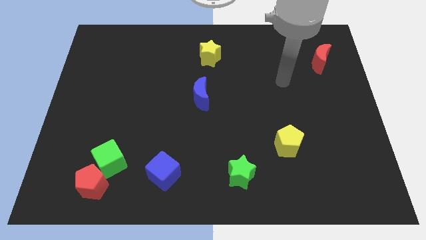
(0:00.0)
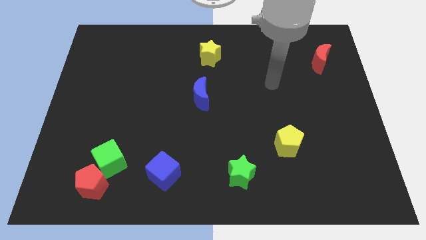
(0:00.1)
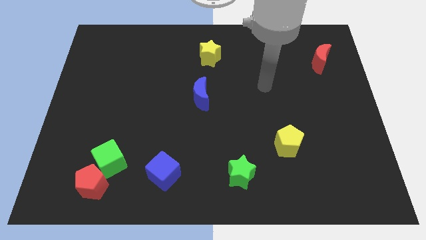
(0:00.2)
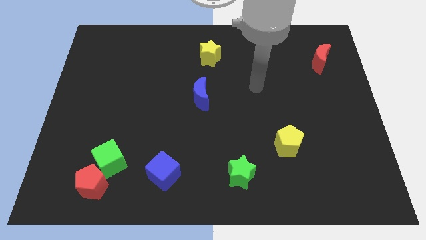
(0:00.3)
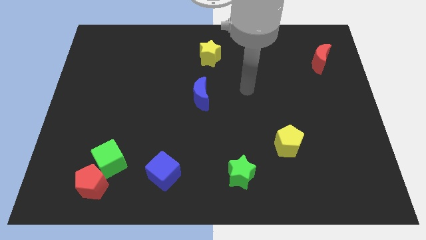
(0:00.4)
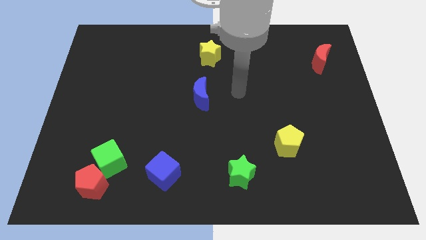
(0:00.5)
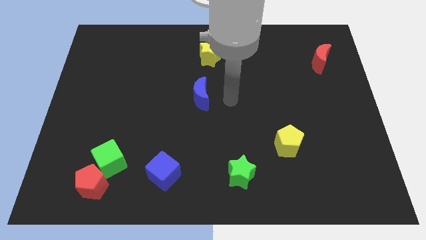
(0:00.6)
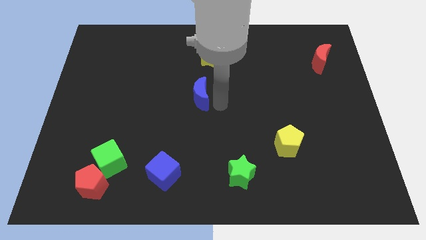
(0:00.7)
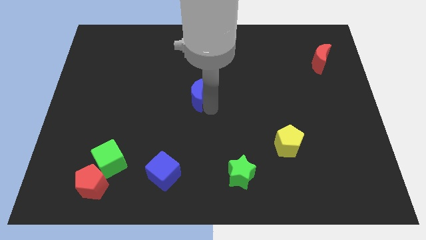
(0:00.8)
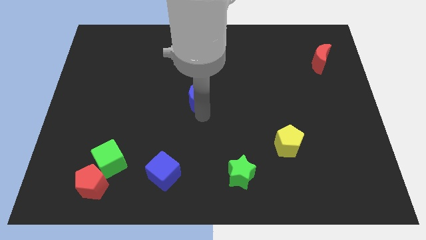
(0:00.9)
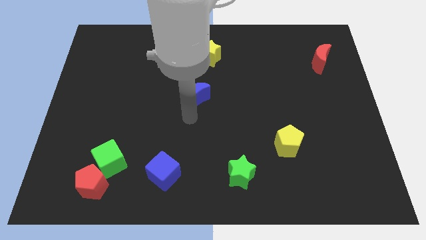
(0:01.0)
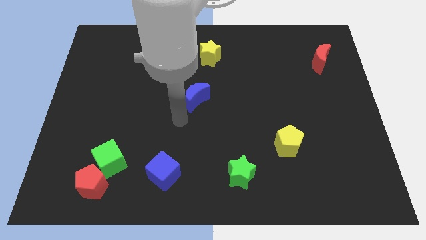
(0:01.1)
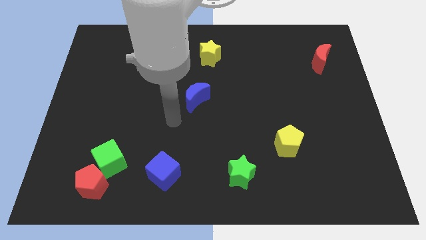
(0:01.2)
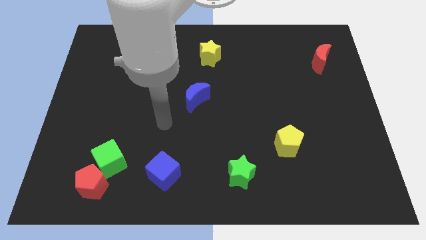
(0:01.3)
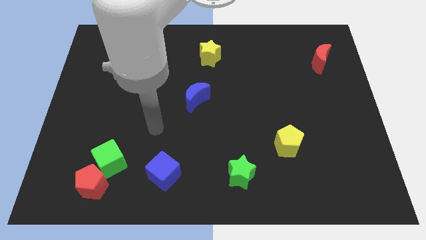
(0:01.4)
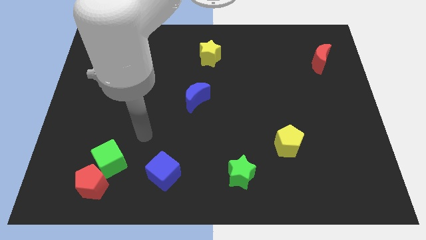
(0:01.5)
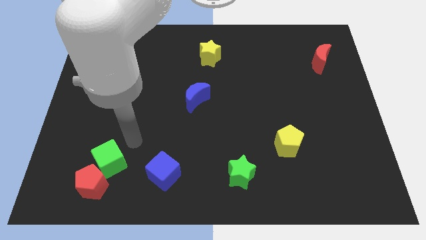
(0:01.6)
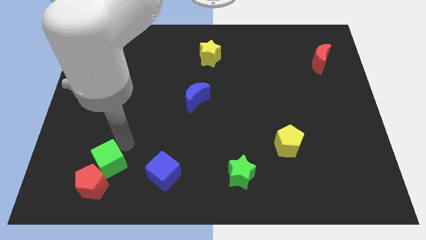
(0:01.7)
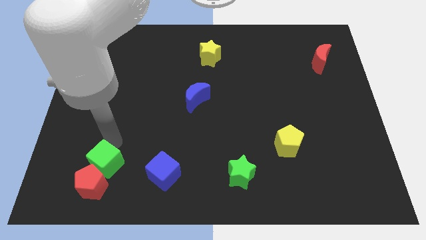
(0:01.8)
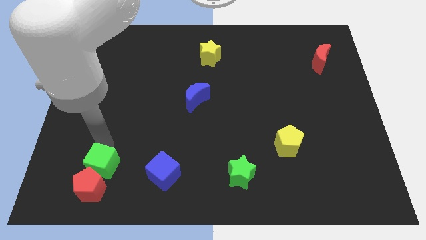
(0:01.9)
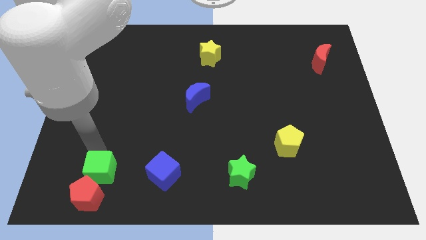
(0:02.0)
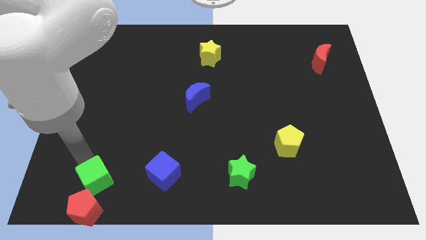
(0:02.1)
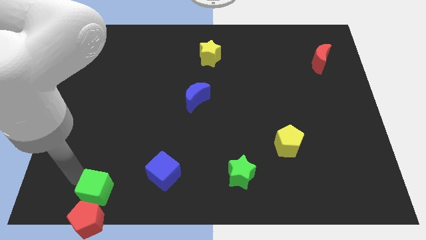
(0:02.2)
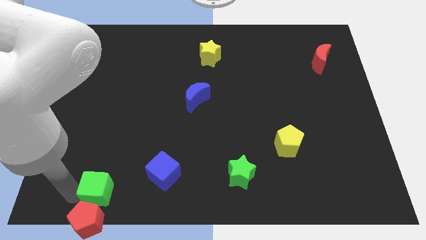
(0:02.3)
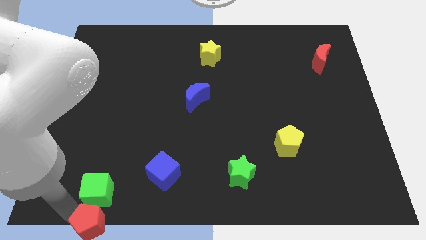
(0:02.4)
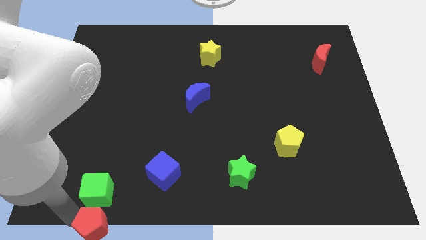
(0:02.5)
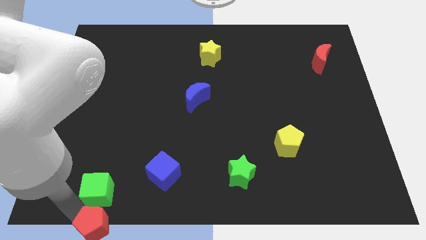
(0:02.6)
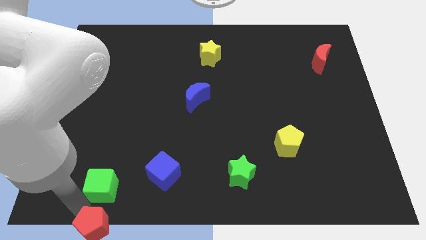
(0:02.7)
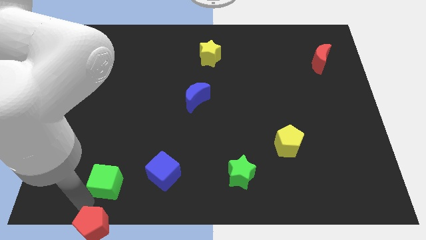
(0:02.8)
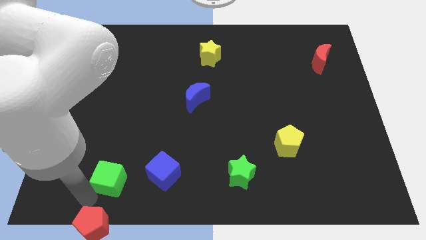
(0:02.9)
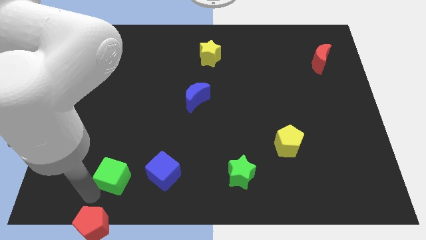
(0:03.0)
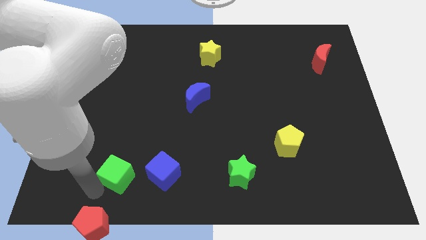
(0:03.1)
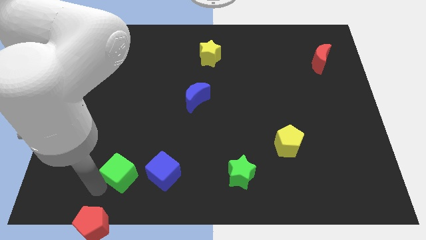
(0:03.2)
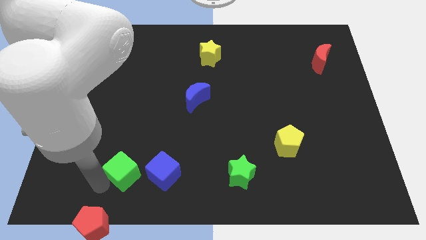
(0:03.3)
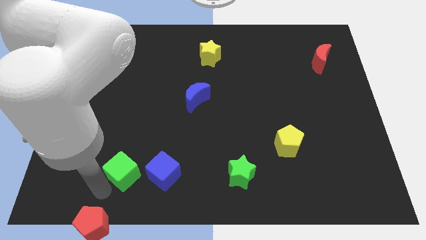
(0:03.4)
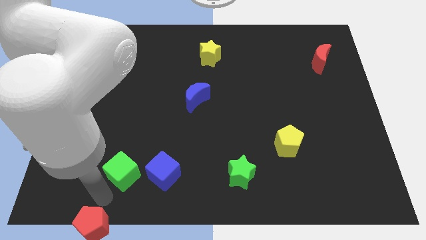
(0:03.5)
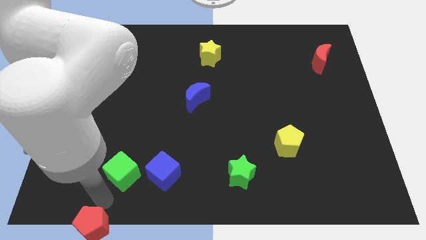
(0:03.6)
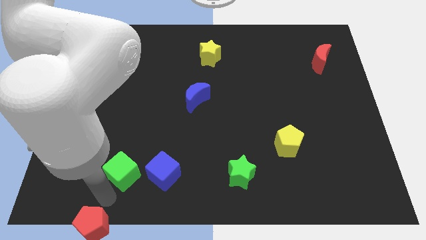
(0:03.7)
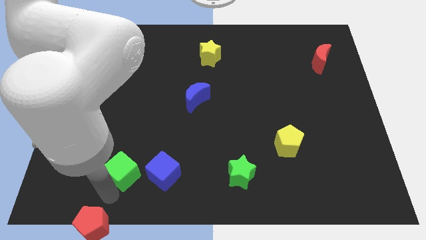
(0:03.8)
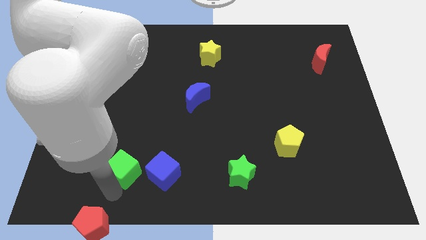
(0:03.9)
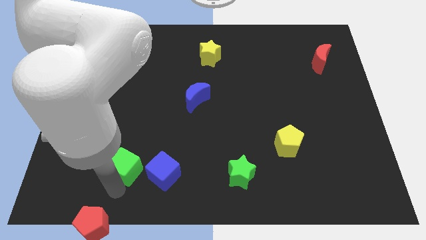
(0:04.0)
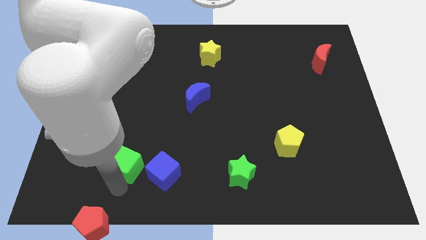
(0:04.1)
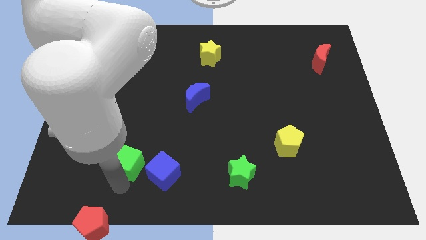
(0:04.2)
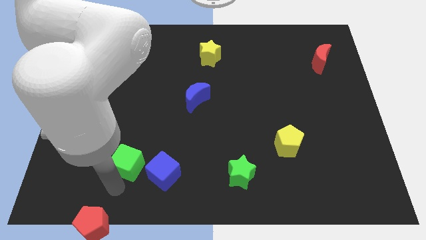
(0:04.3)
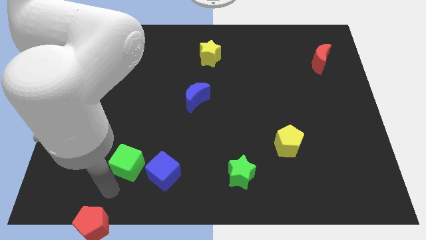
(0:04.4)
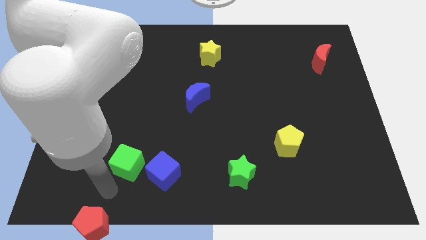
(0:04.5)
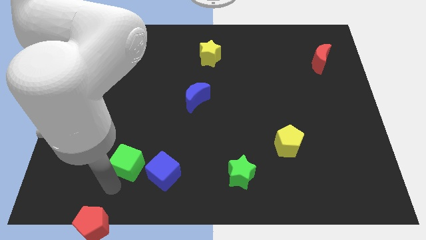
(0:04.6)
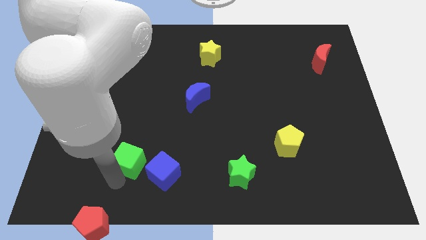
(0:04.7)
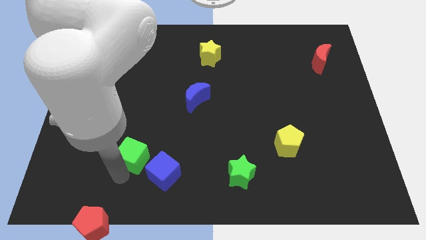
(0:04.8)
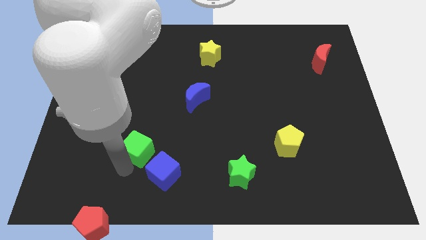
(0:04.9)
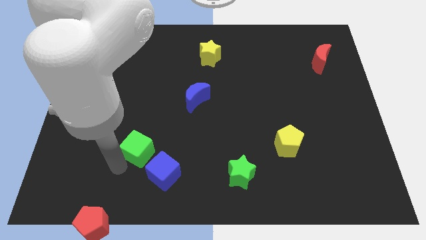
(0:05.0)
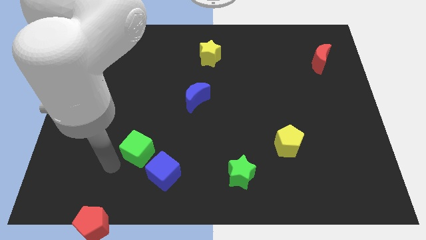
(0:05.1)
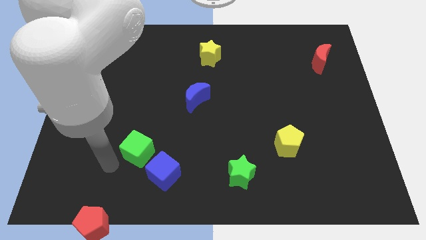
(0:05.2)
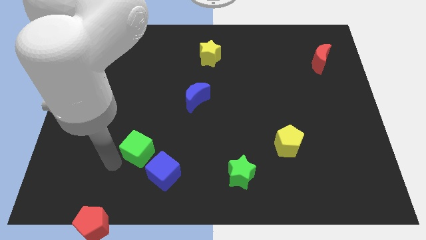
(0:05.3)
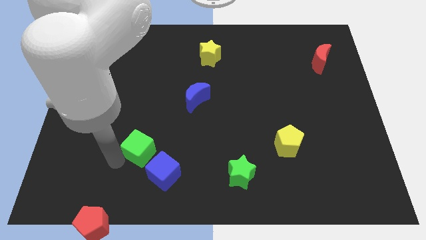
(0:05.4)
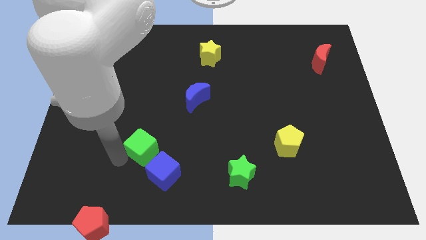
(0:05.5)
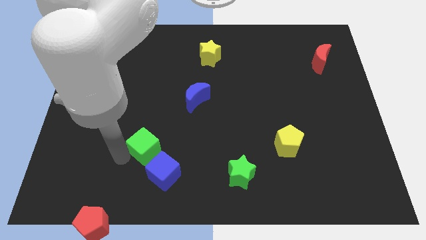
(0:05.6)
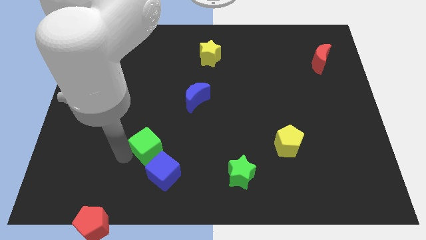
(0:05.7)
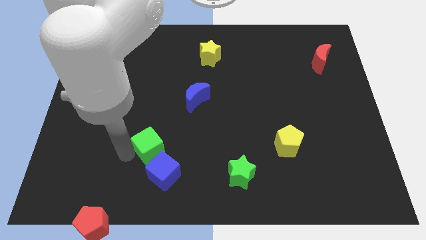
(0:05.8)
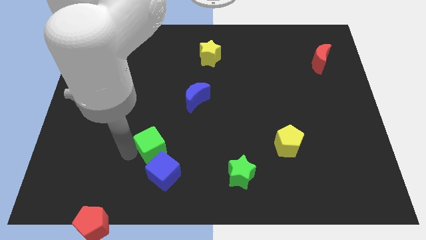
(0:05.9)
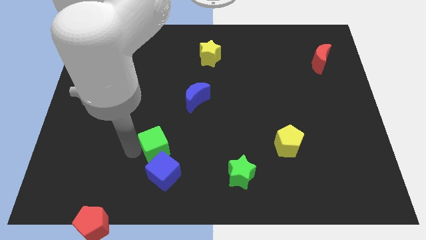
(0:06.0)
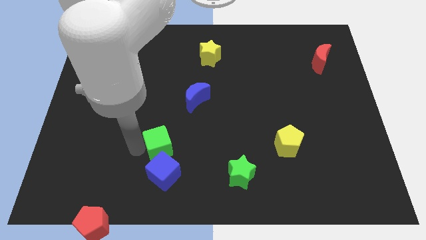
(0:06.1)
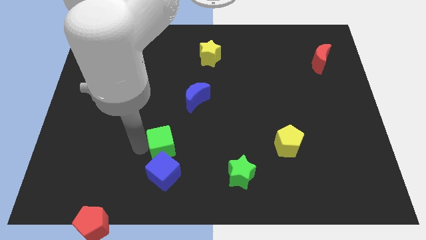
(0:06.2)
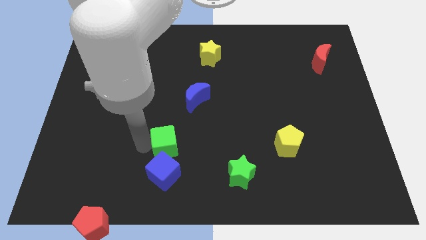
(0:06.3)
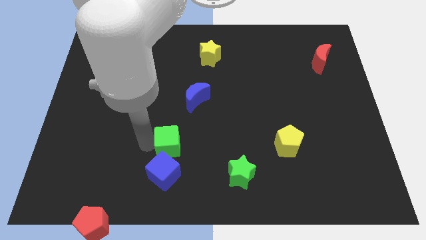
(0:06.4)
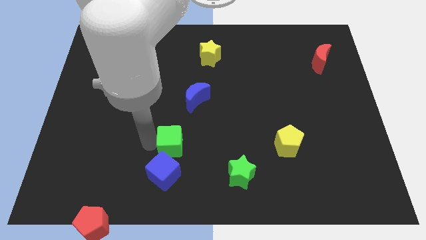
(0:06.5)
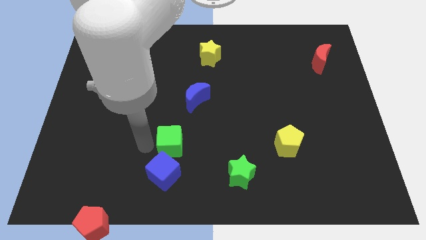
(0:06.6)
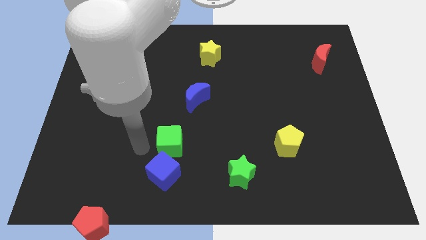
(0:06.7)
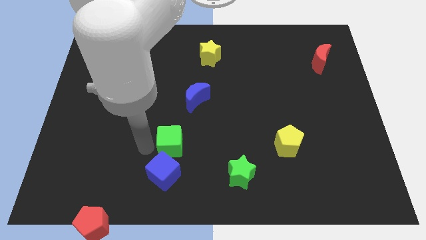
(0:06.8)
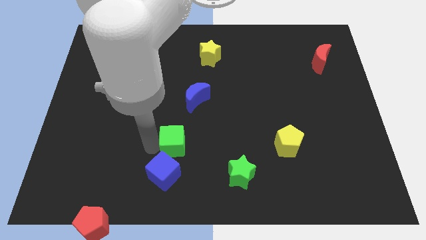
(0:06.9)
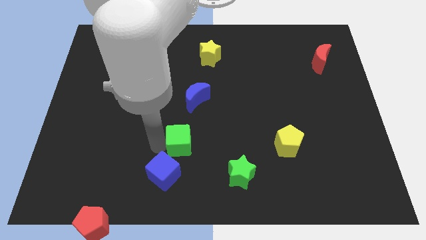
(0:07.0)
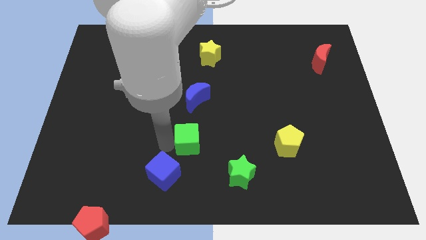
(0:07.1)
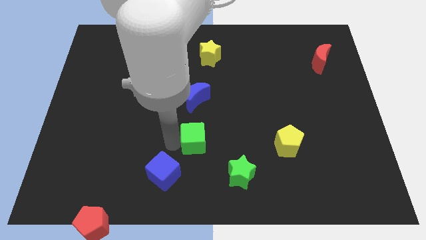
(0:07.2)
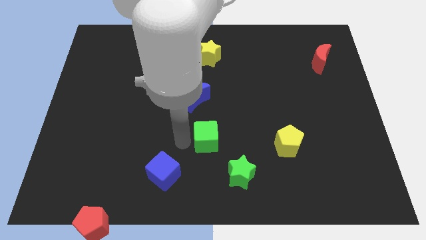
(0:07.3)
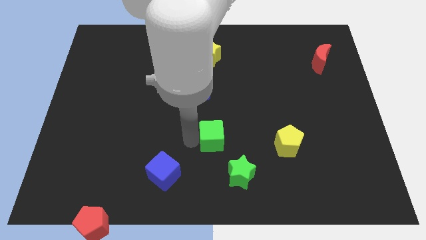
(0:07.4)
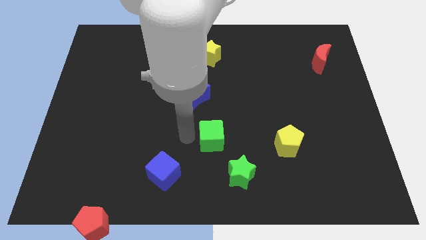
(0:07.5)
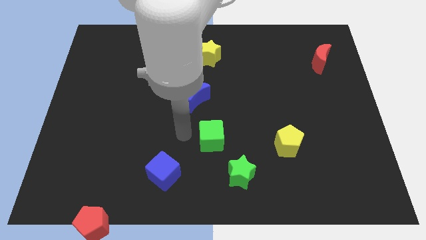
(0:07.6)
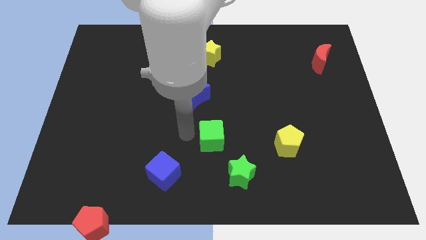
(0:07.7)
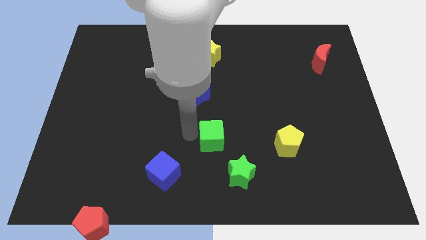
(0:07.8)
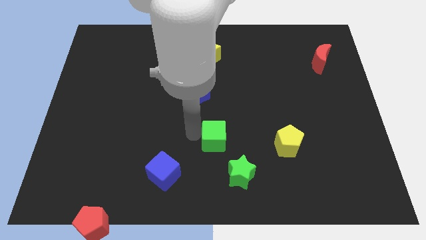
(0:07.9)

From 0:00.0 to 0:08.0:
push the green cube left of the yellow pentagon
